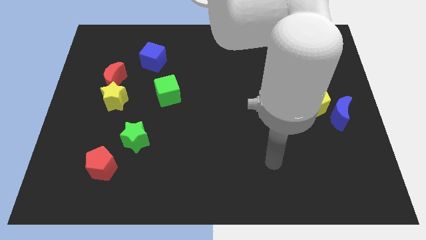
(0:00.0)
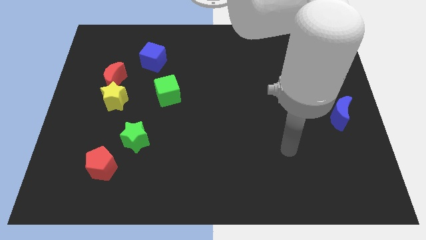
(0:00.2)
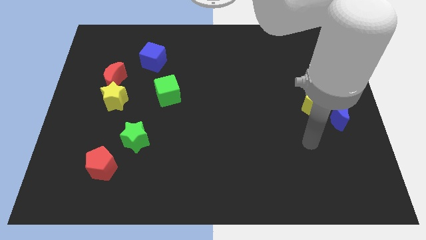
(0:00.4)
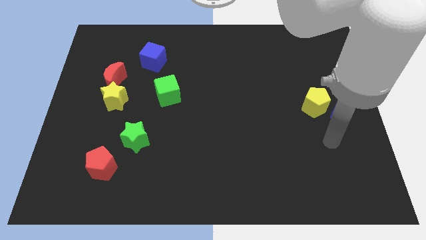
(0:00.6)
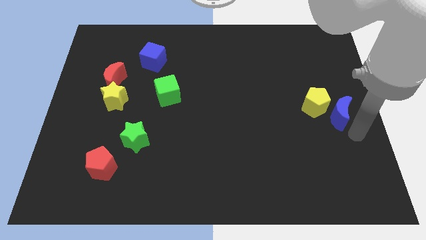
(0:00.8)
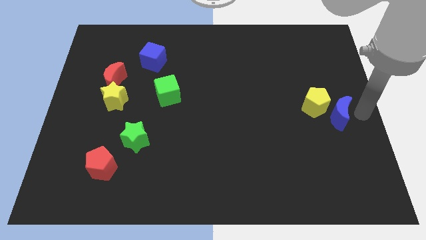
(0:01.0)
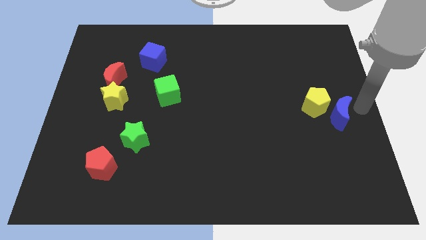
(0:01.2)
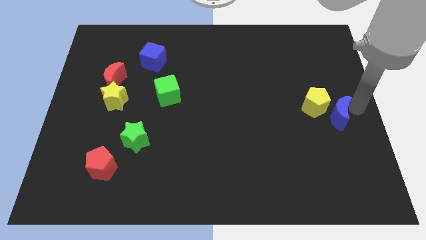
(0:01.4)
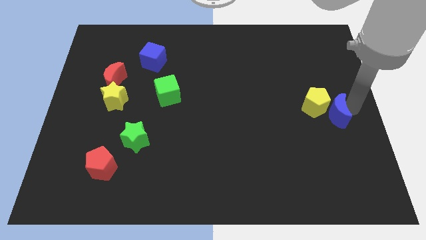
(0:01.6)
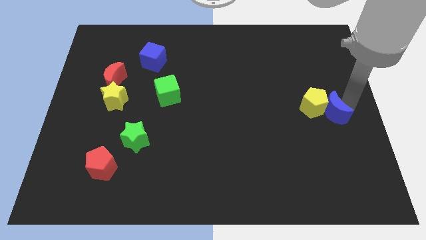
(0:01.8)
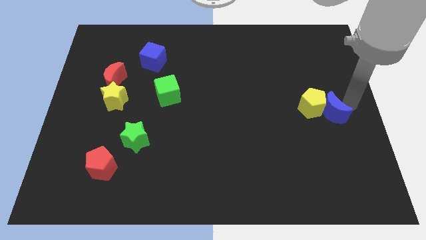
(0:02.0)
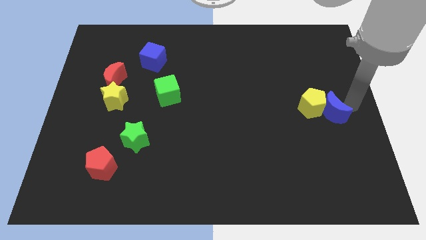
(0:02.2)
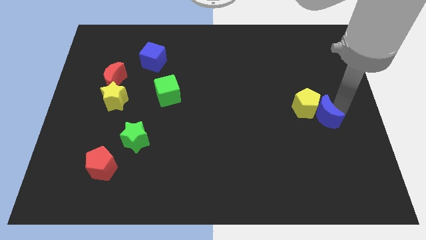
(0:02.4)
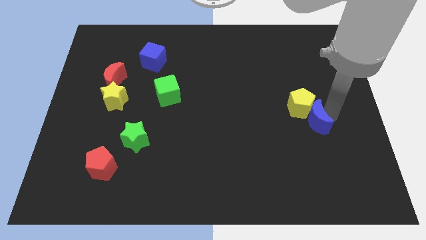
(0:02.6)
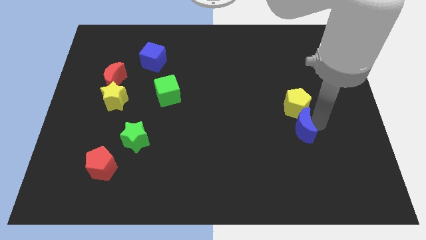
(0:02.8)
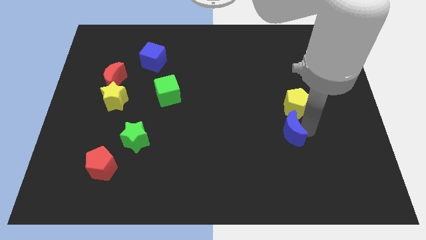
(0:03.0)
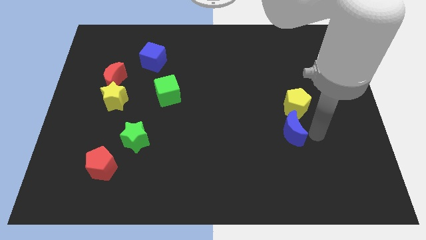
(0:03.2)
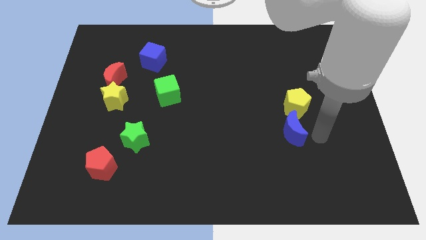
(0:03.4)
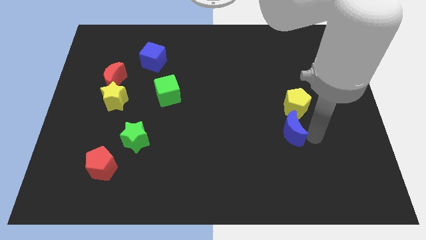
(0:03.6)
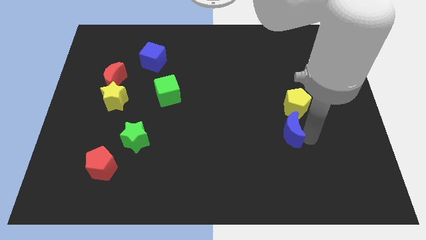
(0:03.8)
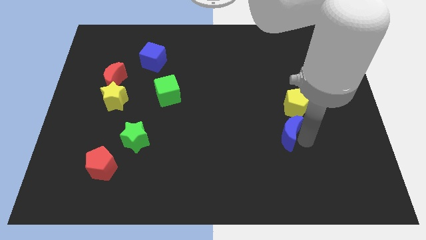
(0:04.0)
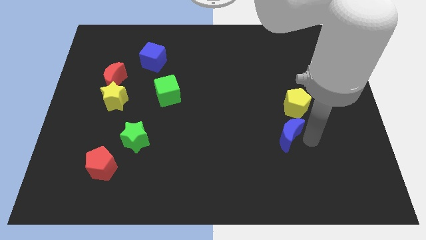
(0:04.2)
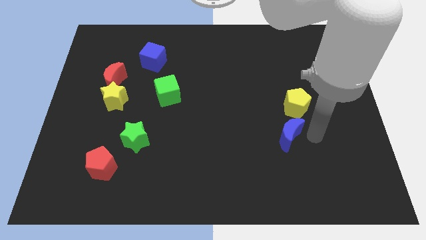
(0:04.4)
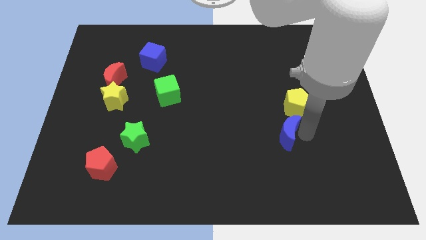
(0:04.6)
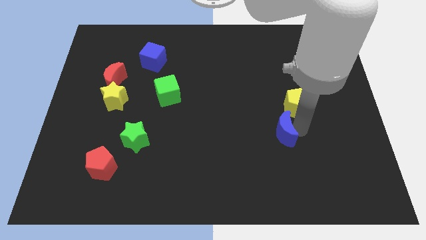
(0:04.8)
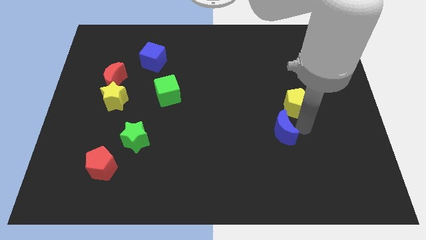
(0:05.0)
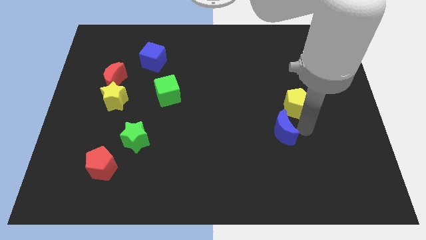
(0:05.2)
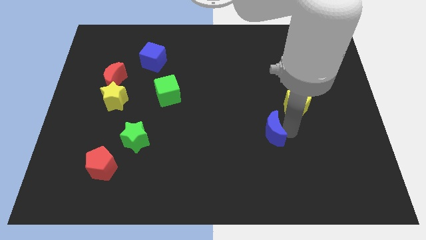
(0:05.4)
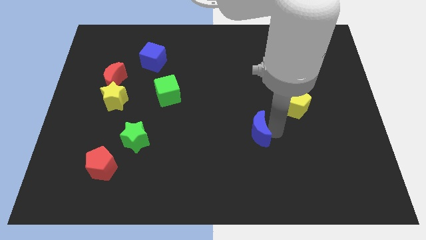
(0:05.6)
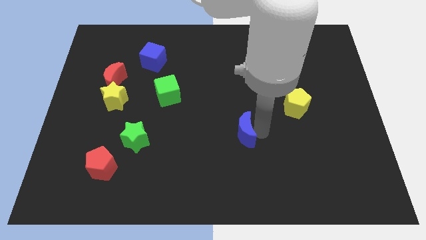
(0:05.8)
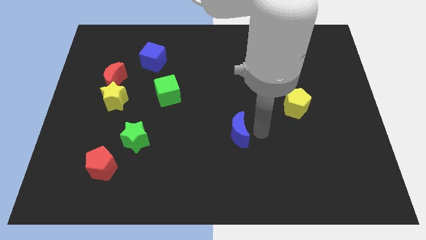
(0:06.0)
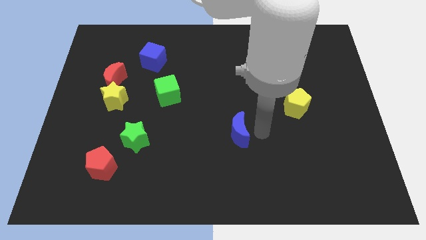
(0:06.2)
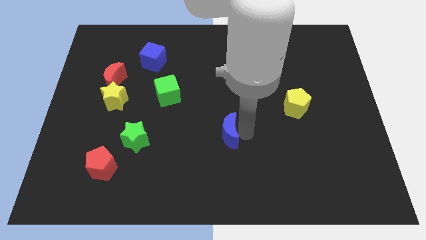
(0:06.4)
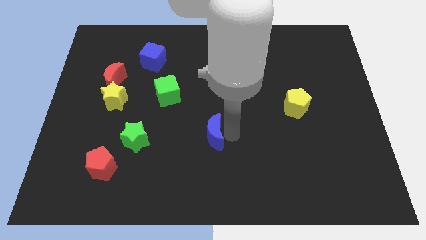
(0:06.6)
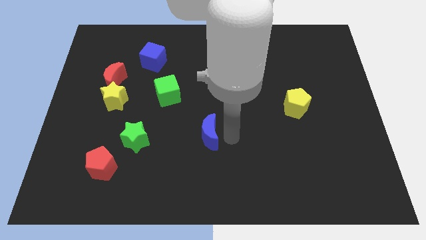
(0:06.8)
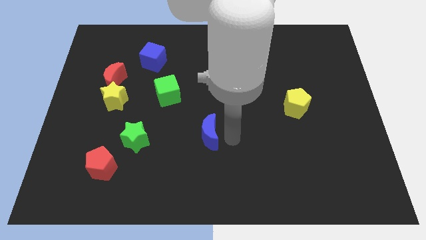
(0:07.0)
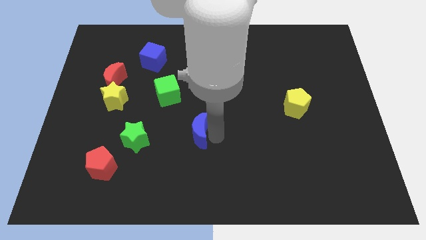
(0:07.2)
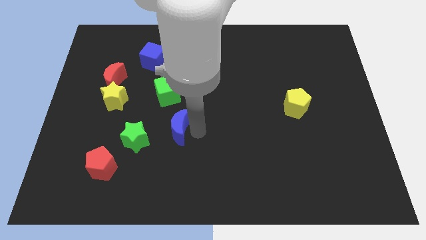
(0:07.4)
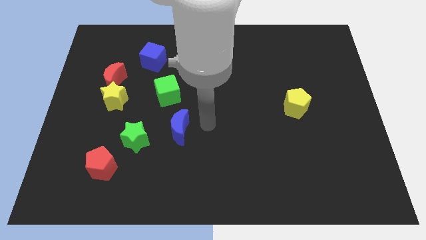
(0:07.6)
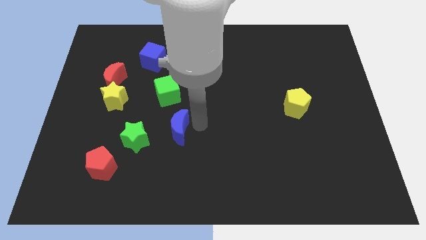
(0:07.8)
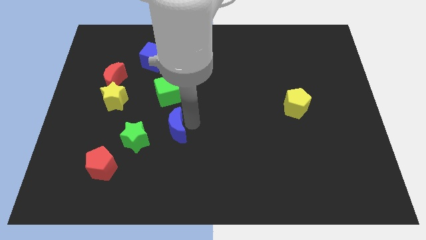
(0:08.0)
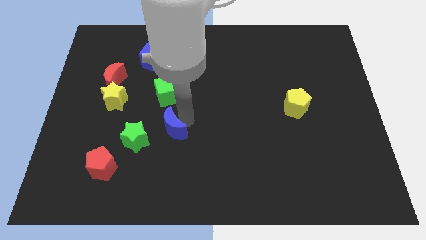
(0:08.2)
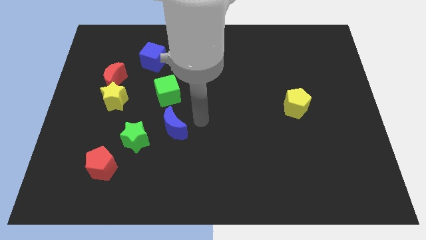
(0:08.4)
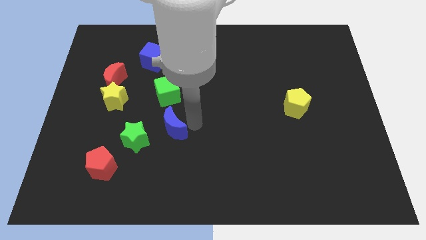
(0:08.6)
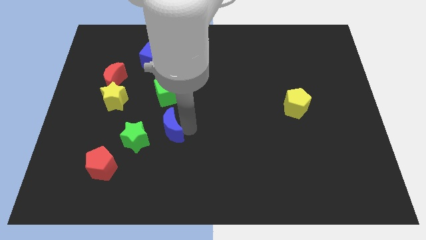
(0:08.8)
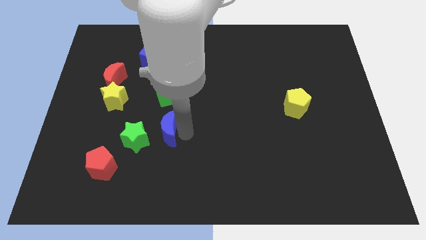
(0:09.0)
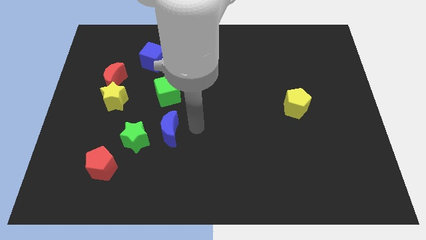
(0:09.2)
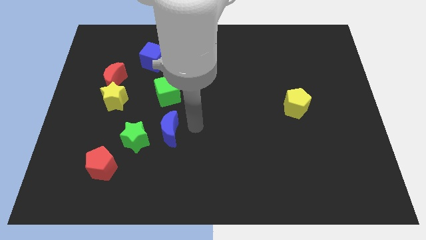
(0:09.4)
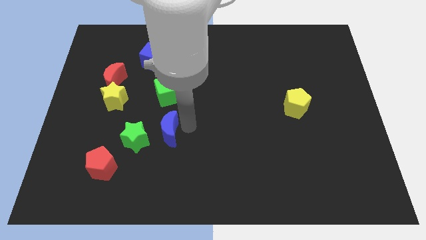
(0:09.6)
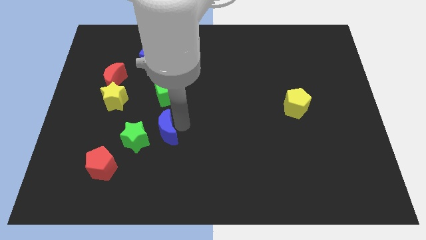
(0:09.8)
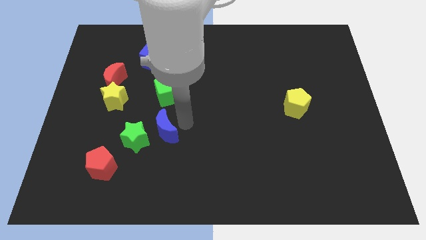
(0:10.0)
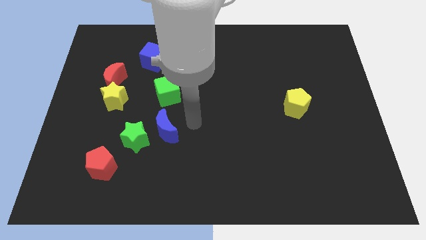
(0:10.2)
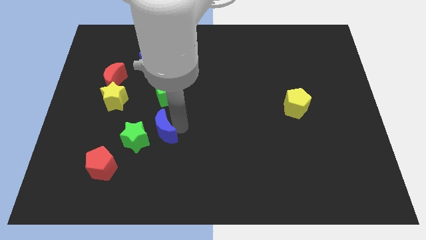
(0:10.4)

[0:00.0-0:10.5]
slide the blue moon close to the green star

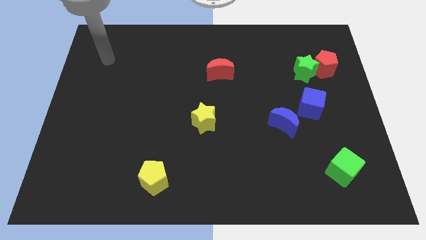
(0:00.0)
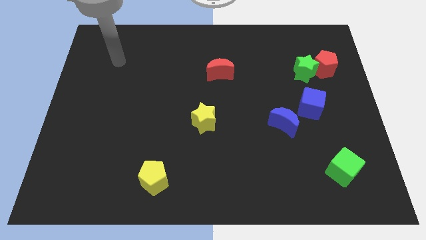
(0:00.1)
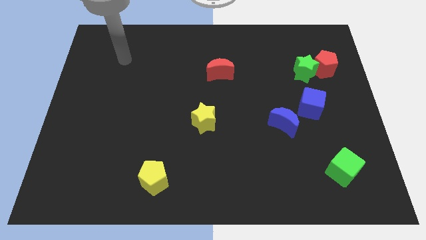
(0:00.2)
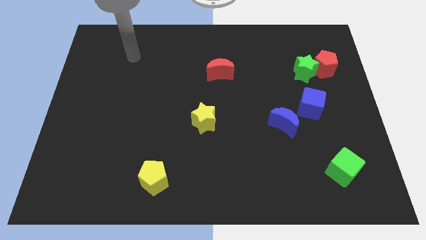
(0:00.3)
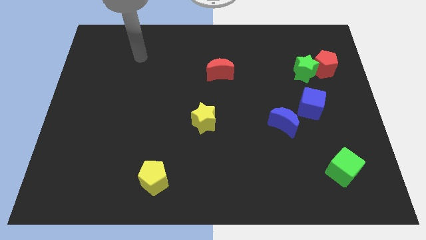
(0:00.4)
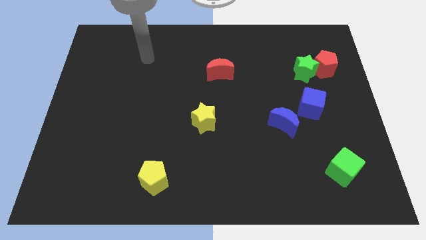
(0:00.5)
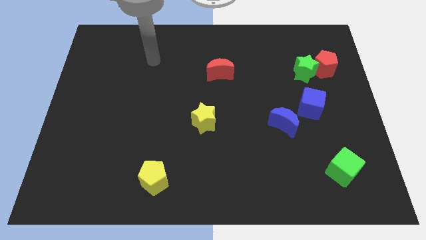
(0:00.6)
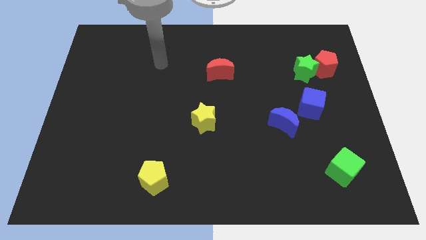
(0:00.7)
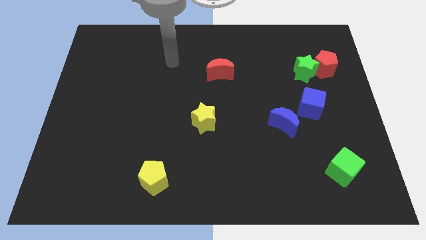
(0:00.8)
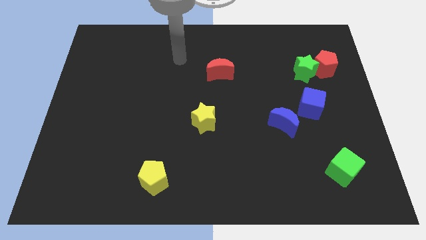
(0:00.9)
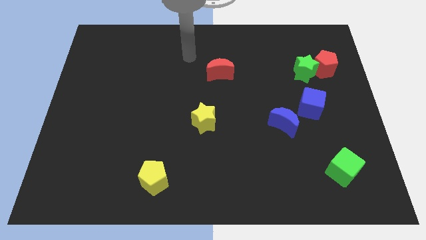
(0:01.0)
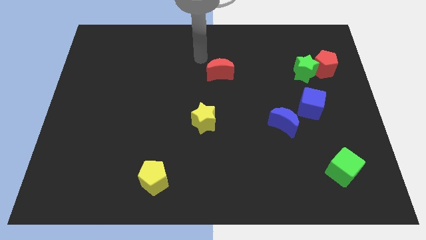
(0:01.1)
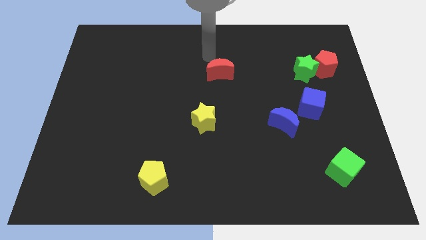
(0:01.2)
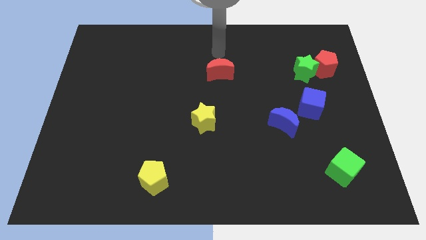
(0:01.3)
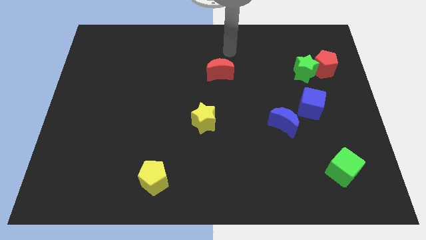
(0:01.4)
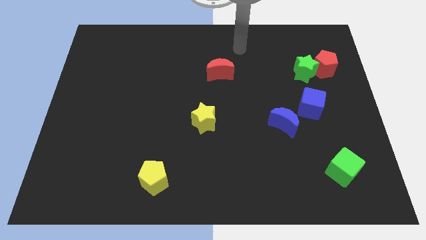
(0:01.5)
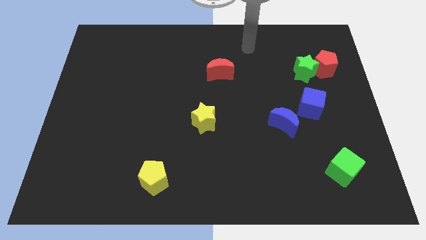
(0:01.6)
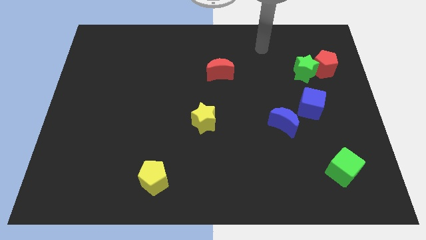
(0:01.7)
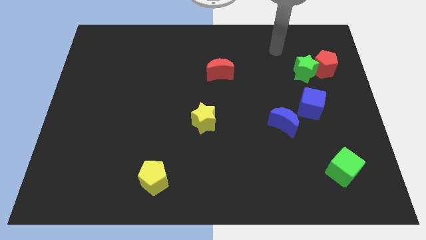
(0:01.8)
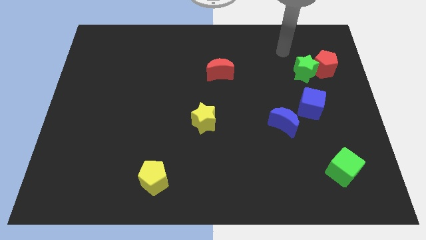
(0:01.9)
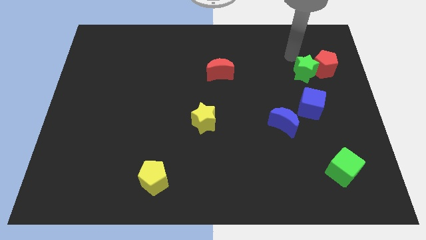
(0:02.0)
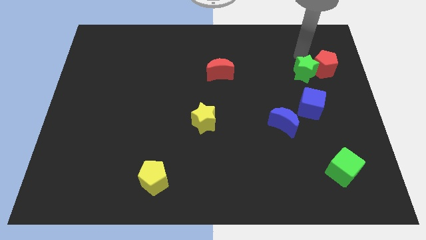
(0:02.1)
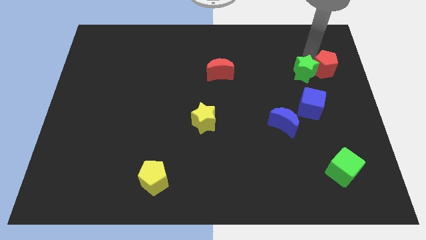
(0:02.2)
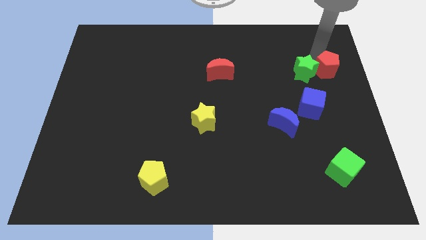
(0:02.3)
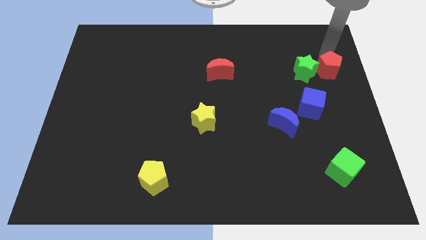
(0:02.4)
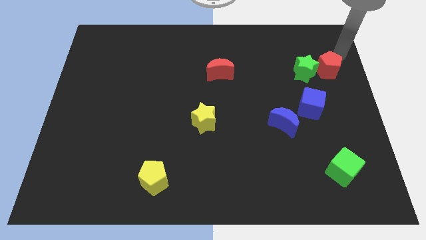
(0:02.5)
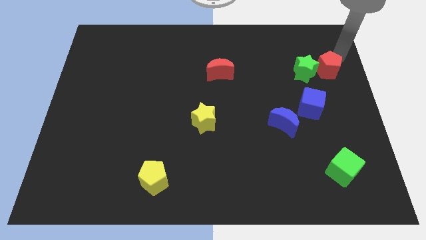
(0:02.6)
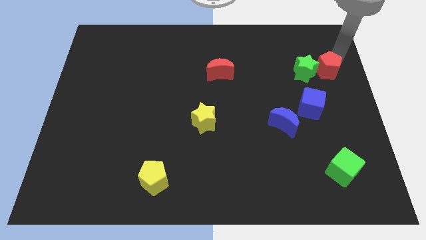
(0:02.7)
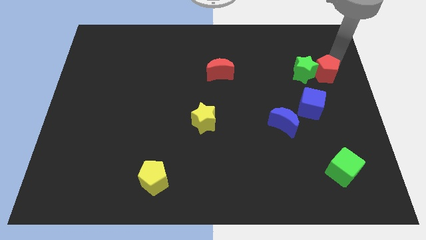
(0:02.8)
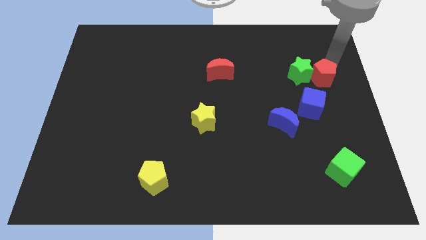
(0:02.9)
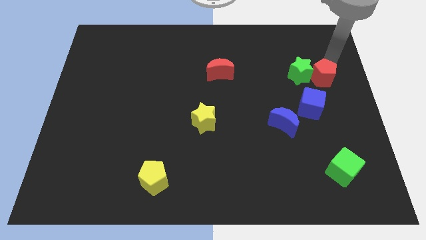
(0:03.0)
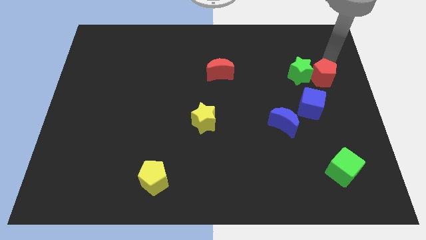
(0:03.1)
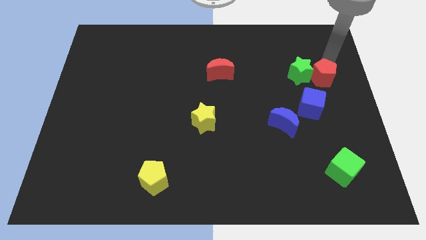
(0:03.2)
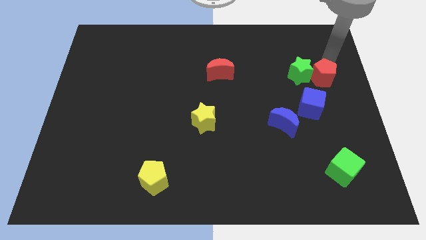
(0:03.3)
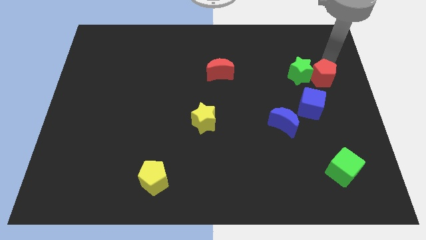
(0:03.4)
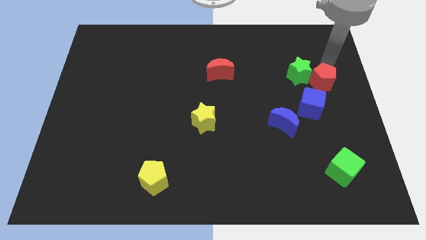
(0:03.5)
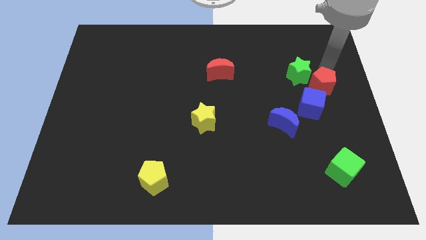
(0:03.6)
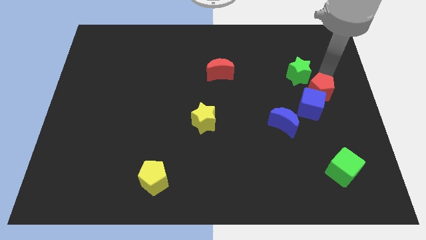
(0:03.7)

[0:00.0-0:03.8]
put the red pentagon towards the blue cube
